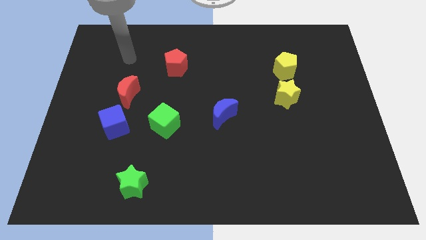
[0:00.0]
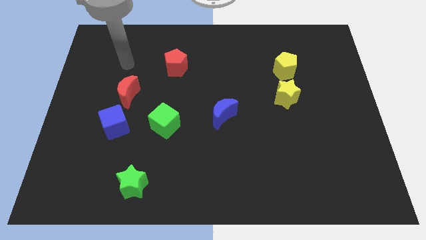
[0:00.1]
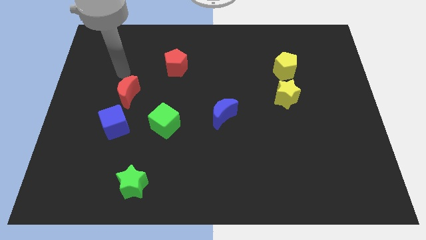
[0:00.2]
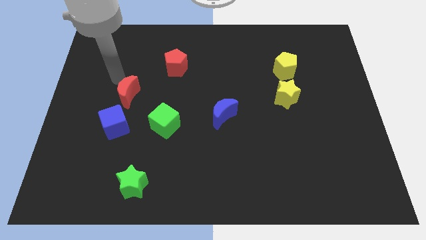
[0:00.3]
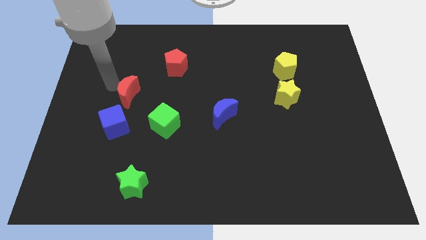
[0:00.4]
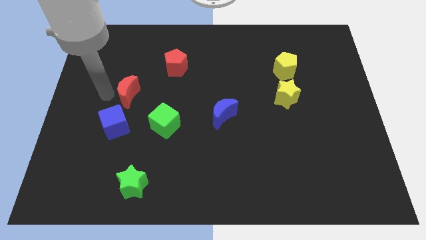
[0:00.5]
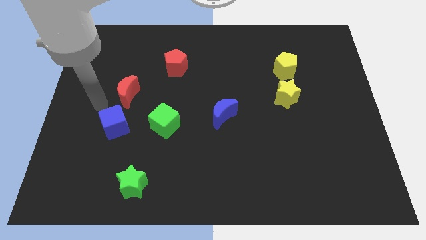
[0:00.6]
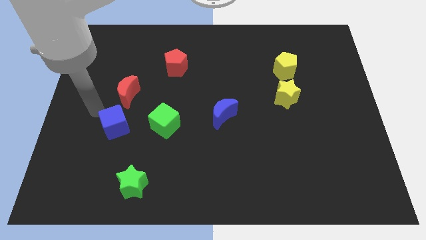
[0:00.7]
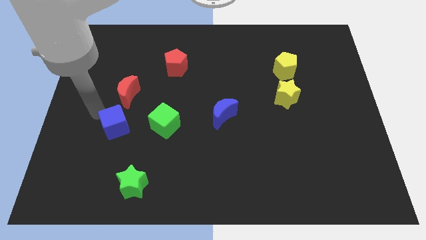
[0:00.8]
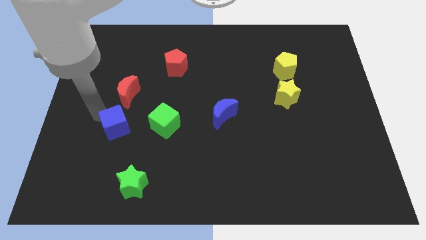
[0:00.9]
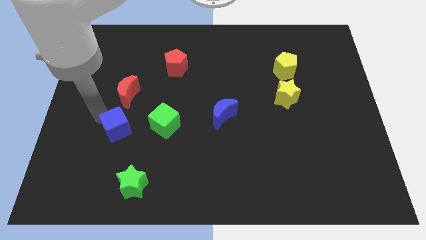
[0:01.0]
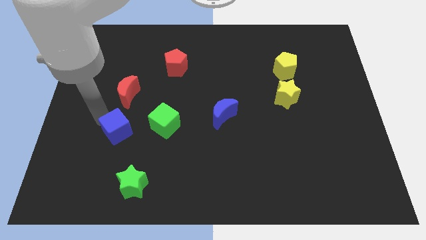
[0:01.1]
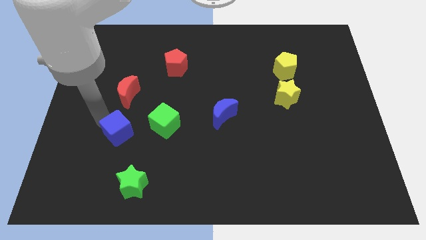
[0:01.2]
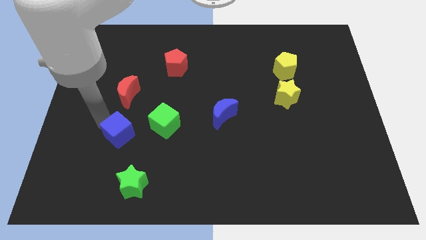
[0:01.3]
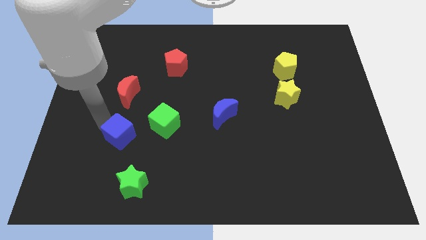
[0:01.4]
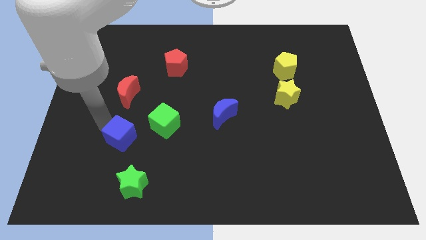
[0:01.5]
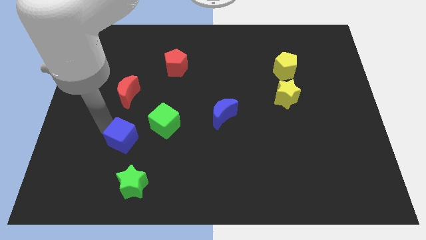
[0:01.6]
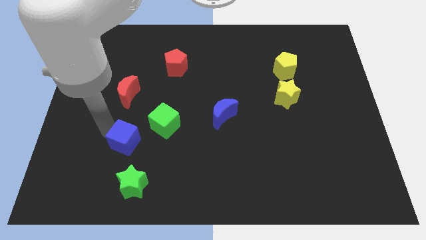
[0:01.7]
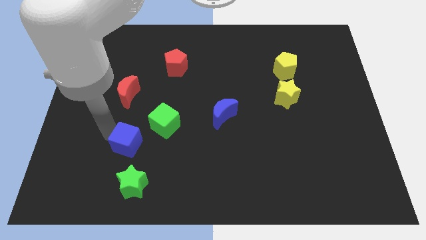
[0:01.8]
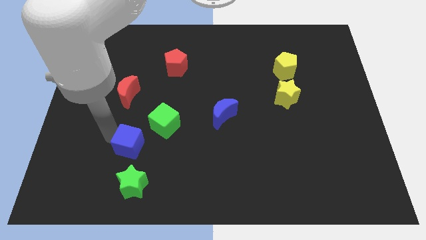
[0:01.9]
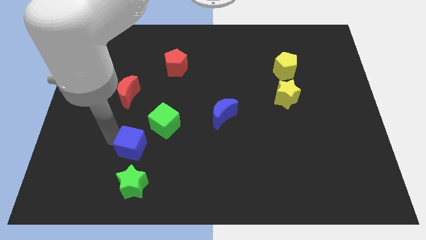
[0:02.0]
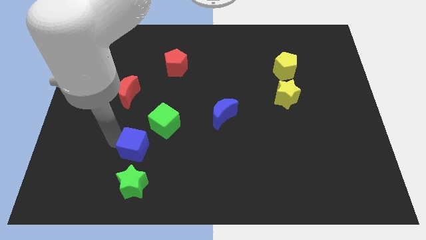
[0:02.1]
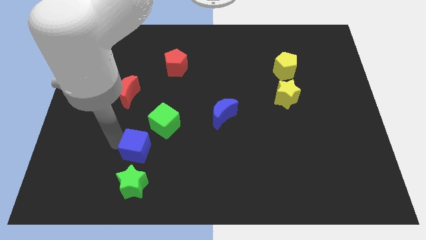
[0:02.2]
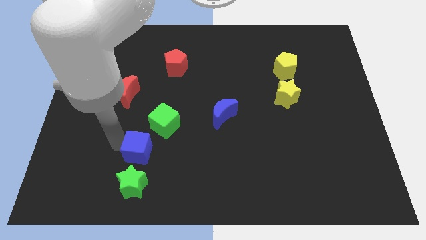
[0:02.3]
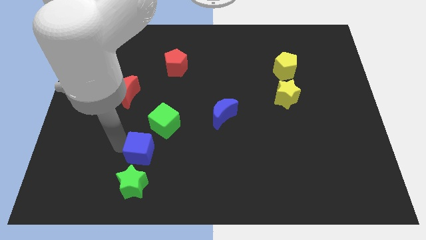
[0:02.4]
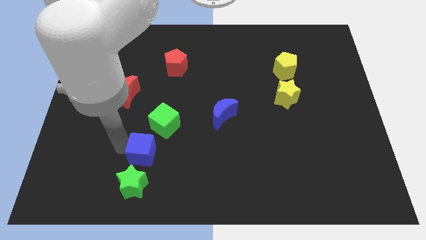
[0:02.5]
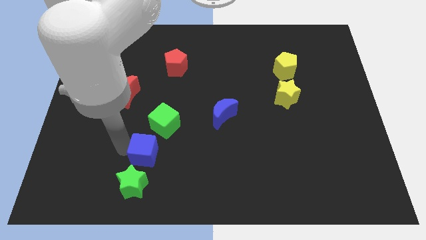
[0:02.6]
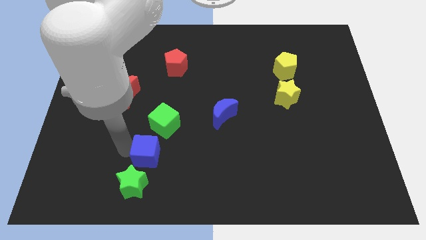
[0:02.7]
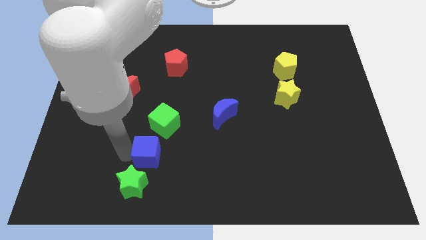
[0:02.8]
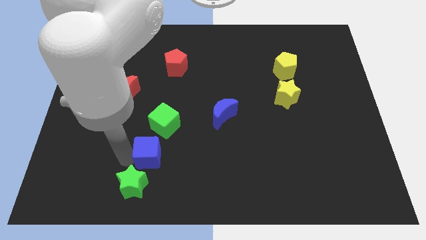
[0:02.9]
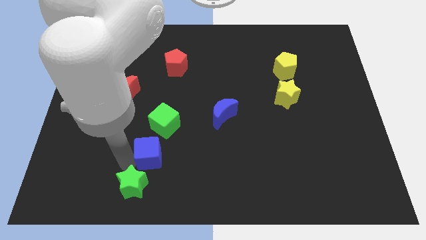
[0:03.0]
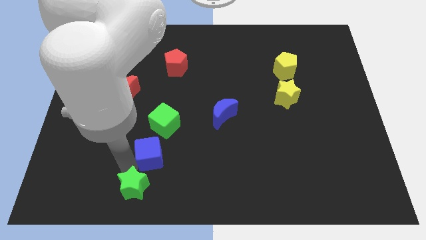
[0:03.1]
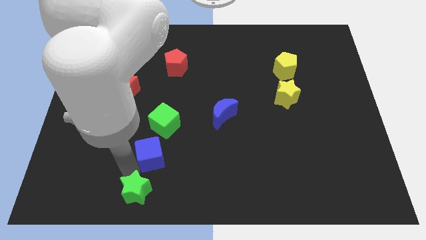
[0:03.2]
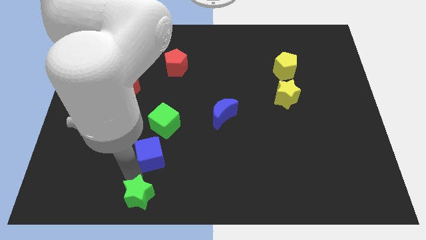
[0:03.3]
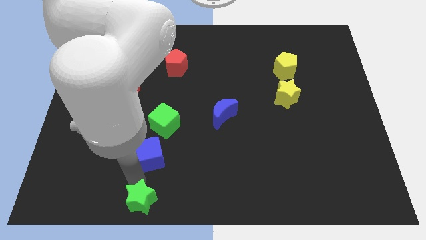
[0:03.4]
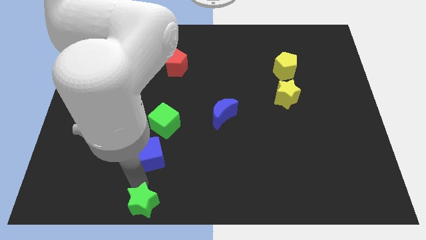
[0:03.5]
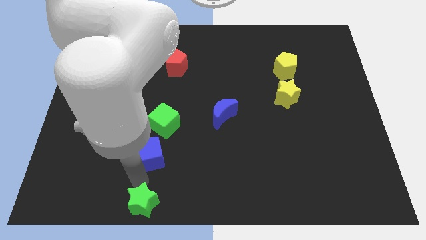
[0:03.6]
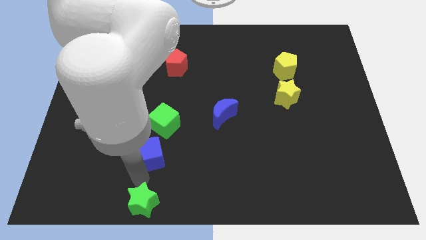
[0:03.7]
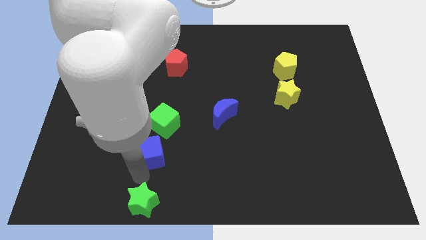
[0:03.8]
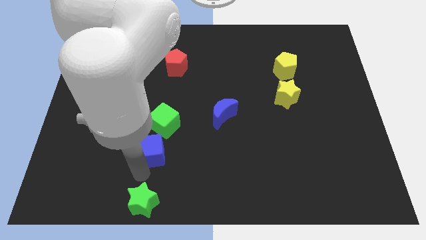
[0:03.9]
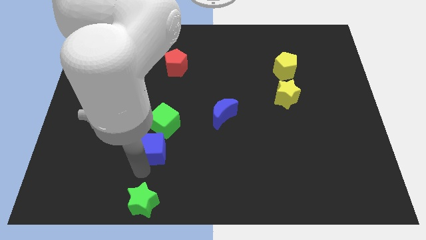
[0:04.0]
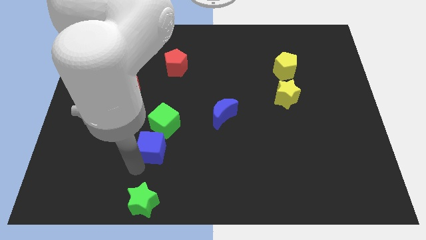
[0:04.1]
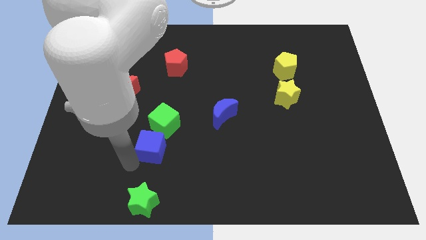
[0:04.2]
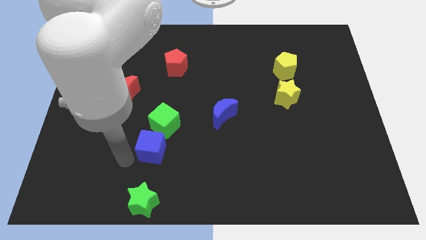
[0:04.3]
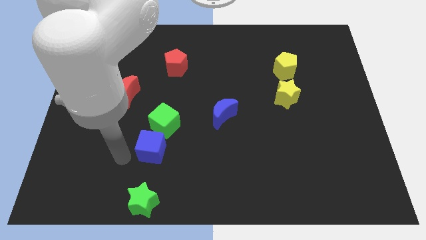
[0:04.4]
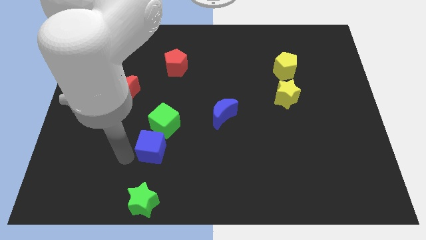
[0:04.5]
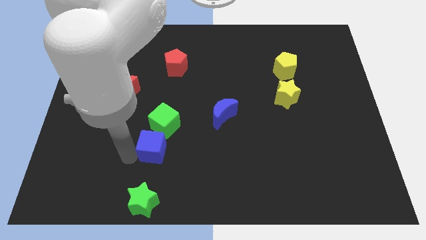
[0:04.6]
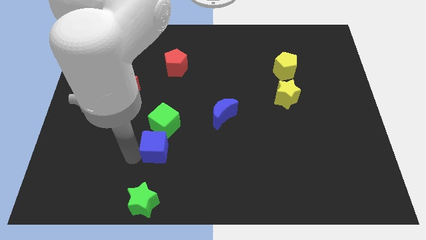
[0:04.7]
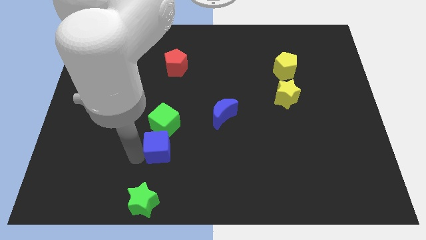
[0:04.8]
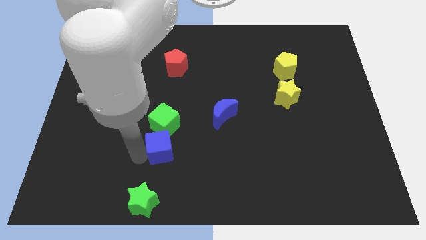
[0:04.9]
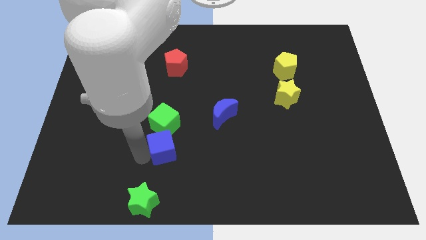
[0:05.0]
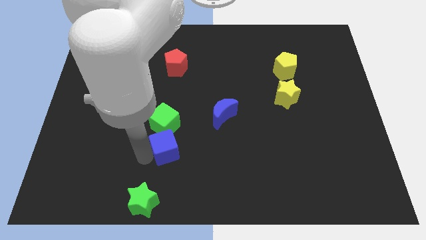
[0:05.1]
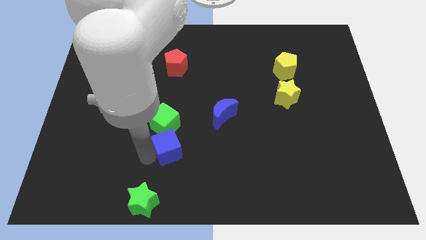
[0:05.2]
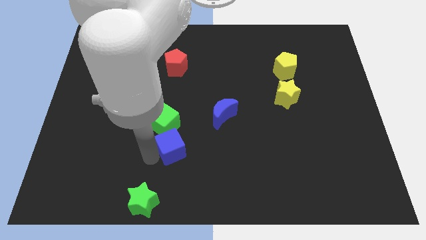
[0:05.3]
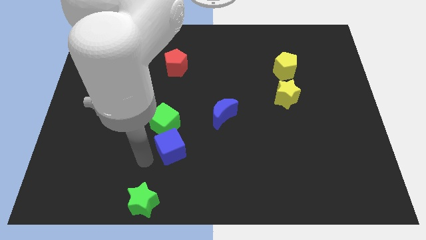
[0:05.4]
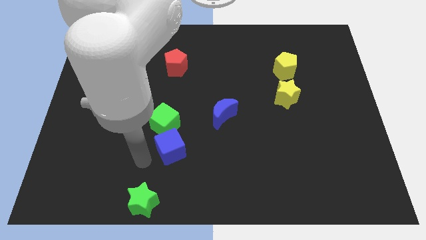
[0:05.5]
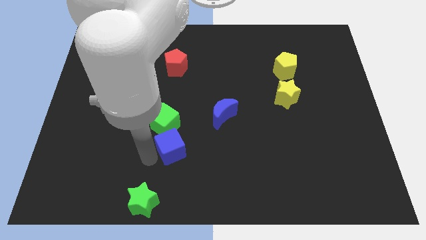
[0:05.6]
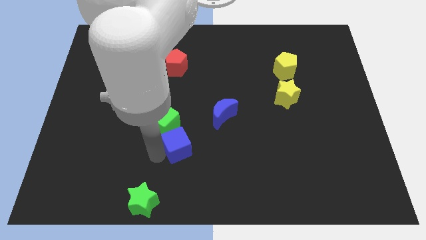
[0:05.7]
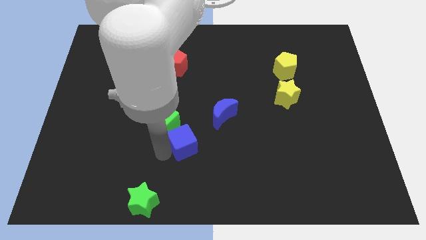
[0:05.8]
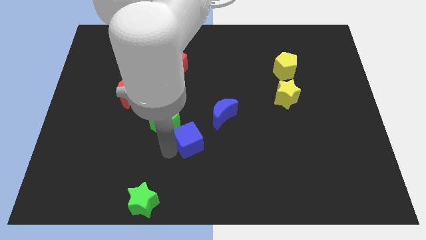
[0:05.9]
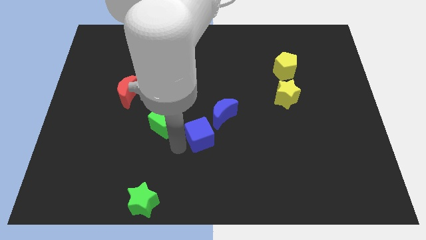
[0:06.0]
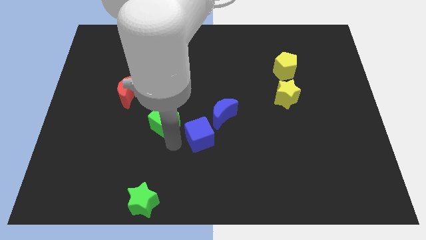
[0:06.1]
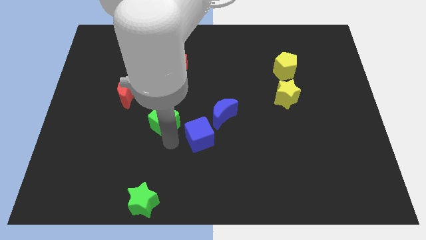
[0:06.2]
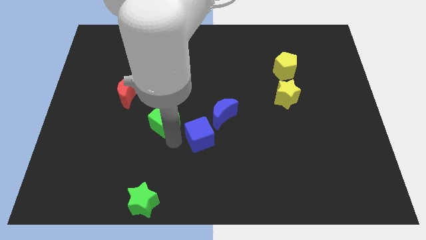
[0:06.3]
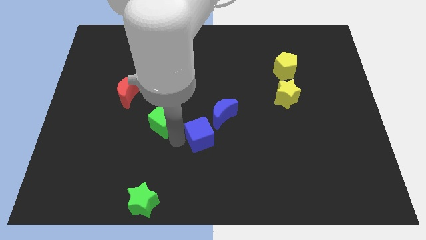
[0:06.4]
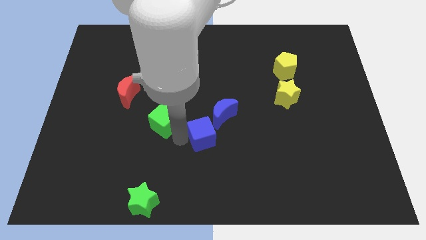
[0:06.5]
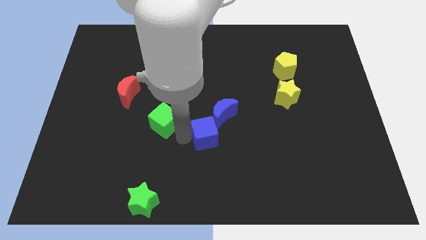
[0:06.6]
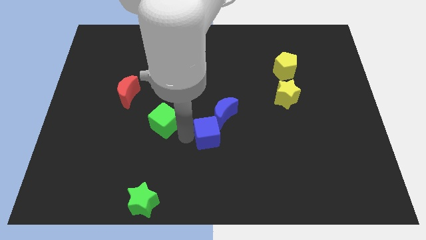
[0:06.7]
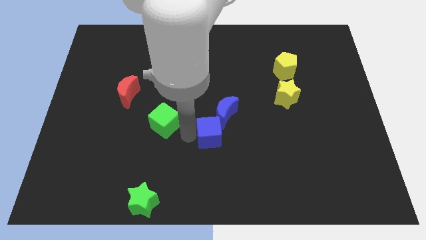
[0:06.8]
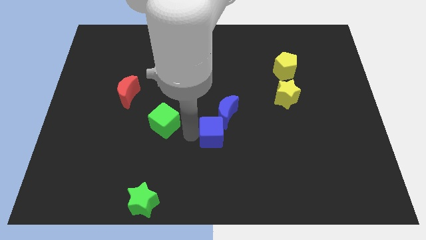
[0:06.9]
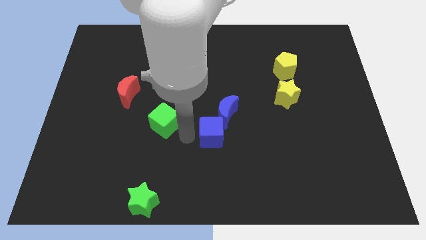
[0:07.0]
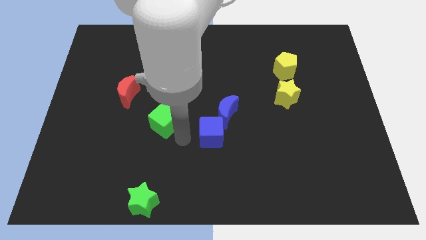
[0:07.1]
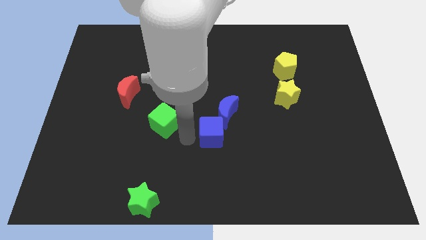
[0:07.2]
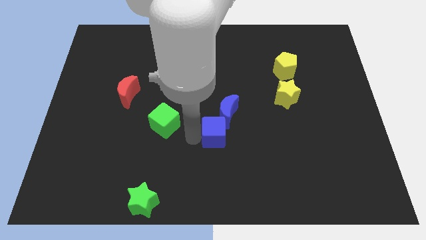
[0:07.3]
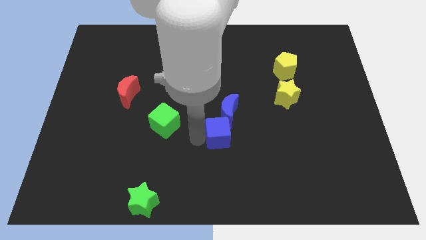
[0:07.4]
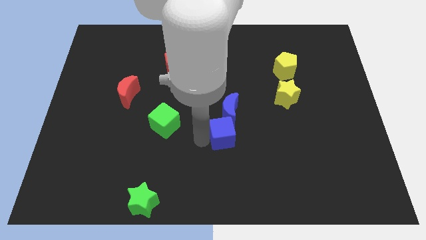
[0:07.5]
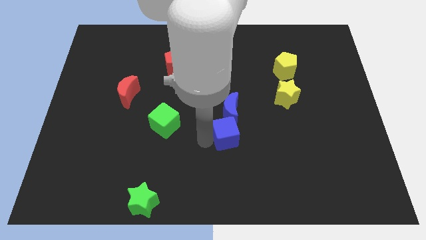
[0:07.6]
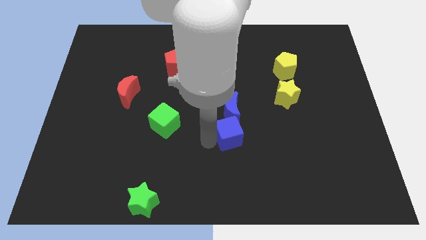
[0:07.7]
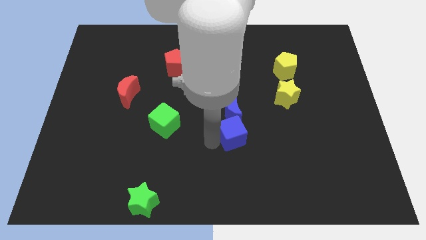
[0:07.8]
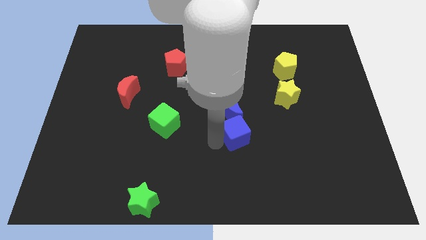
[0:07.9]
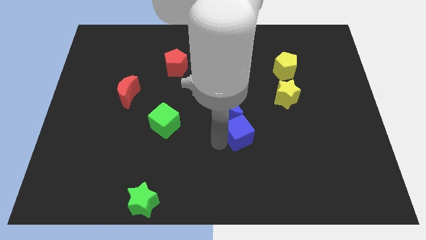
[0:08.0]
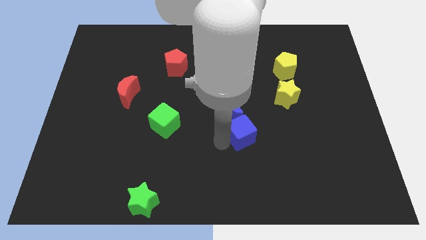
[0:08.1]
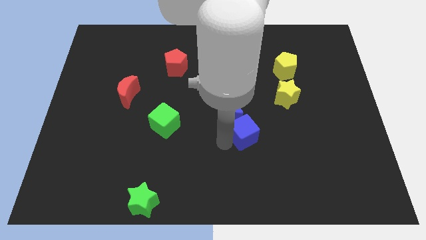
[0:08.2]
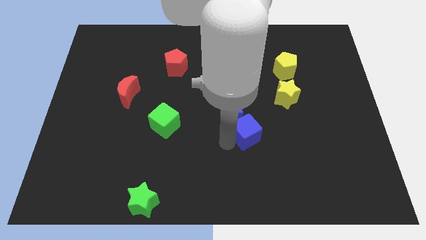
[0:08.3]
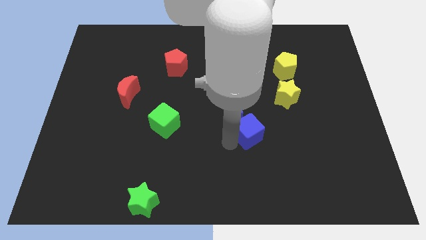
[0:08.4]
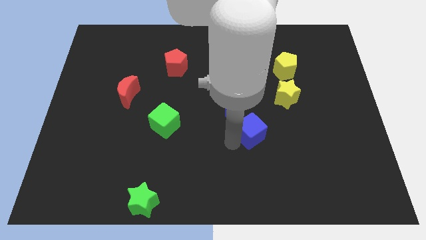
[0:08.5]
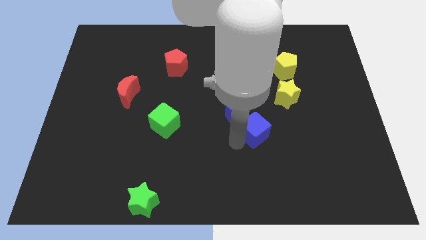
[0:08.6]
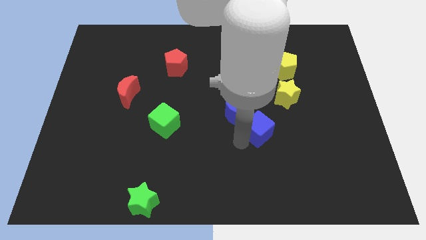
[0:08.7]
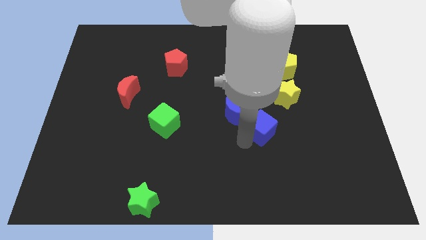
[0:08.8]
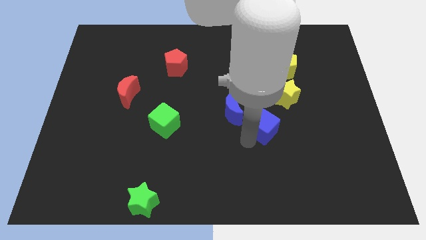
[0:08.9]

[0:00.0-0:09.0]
move the blue cube to the right of the blue moon
